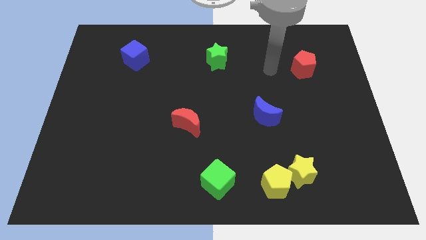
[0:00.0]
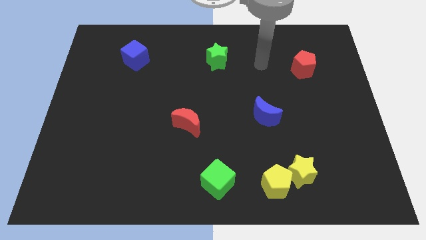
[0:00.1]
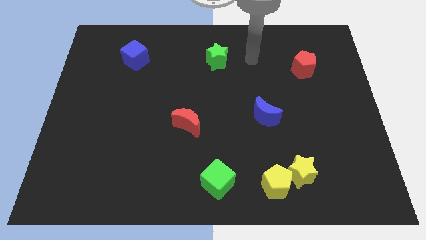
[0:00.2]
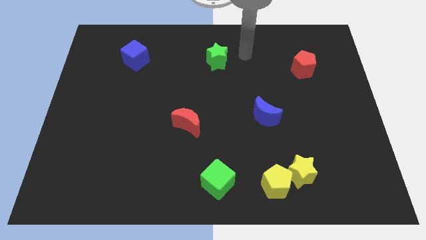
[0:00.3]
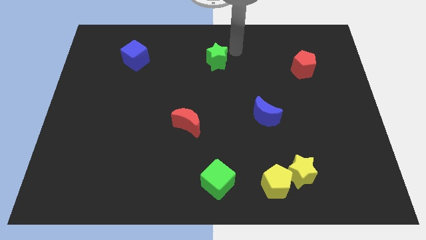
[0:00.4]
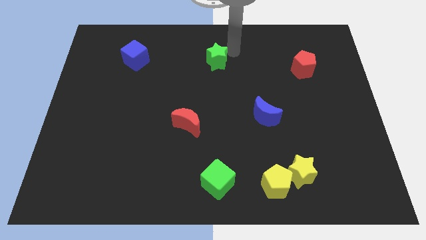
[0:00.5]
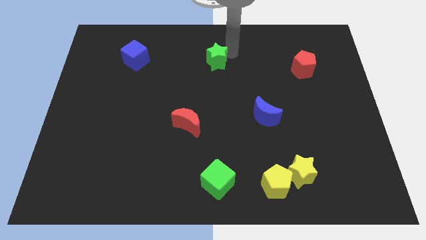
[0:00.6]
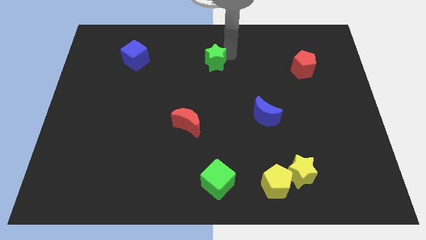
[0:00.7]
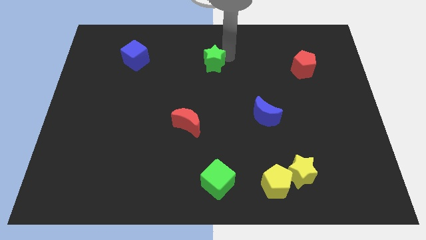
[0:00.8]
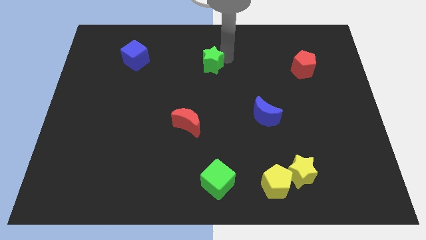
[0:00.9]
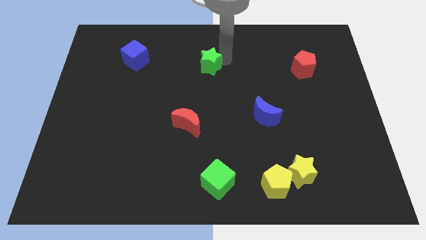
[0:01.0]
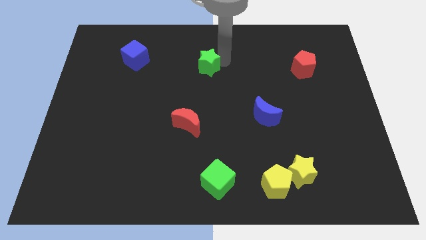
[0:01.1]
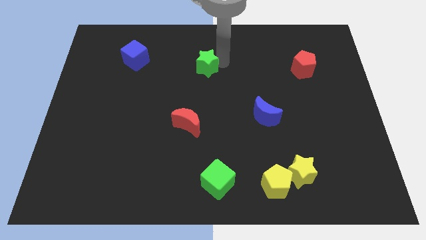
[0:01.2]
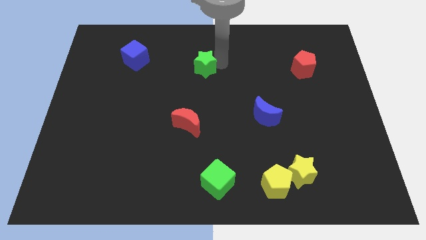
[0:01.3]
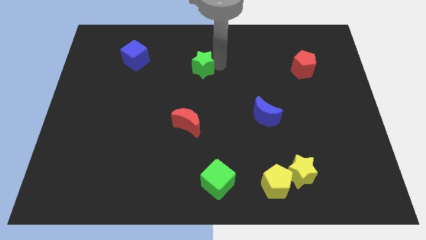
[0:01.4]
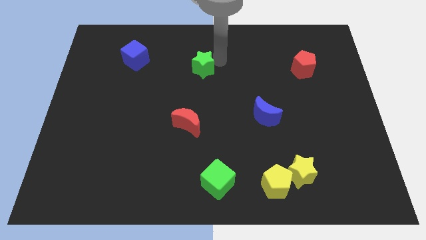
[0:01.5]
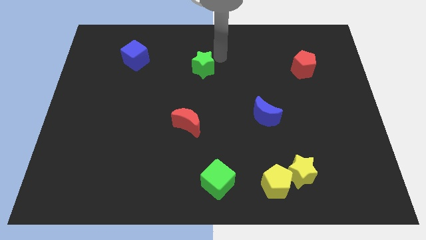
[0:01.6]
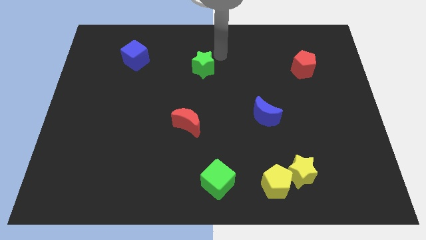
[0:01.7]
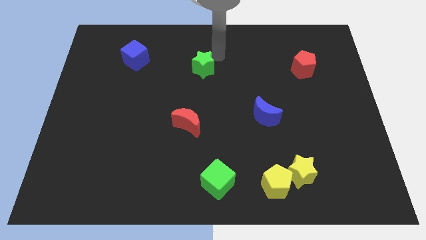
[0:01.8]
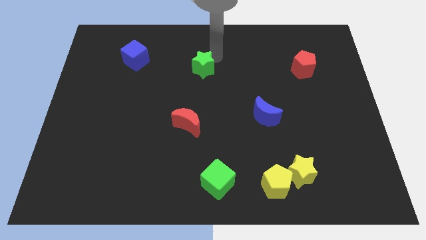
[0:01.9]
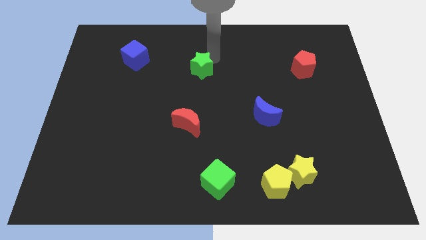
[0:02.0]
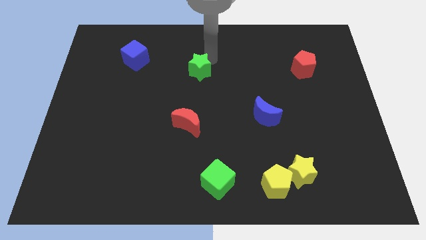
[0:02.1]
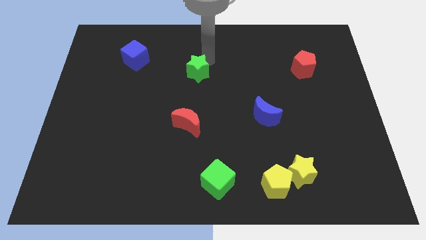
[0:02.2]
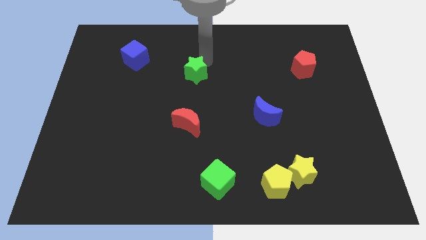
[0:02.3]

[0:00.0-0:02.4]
move the green star downwards and then to the left a bit

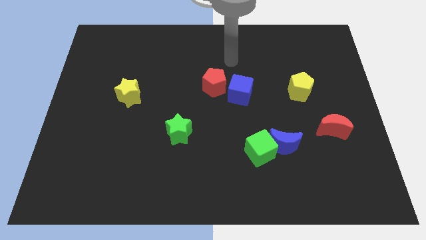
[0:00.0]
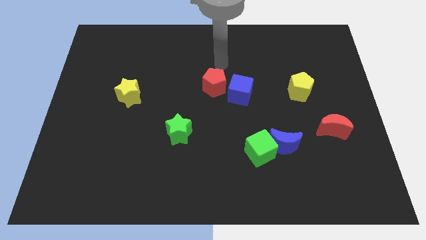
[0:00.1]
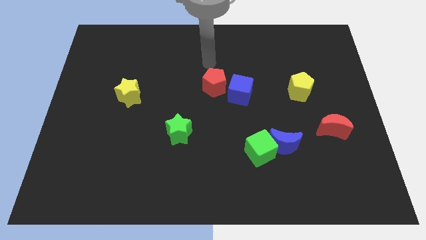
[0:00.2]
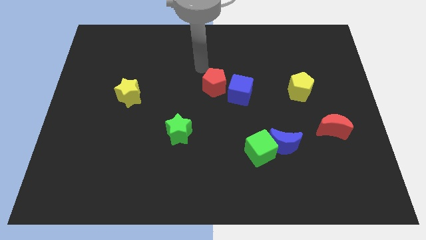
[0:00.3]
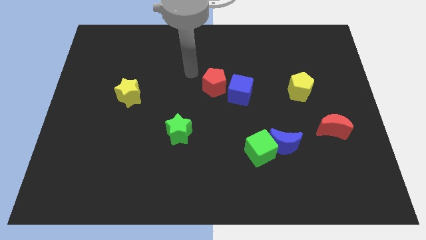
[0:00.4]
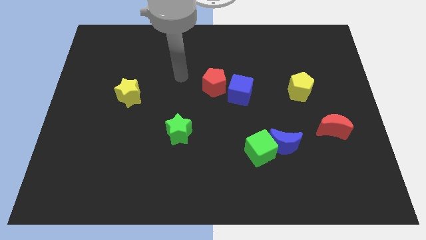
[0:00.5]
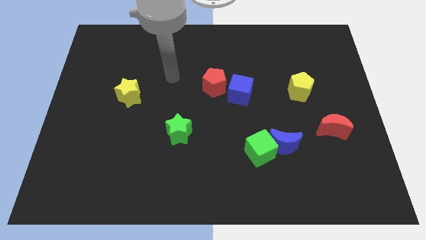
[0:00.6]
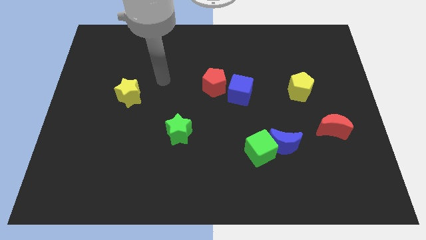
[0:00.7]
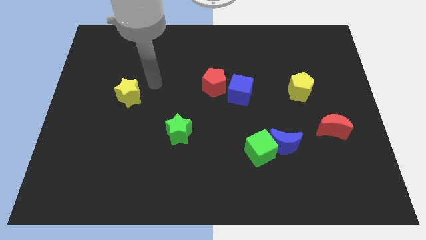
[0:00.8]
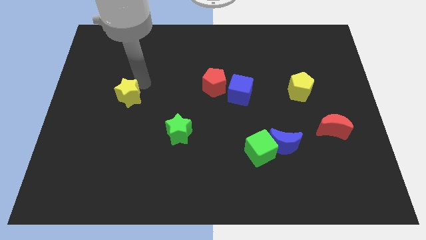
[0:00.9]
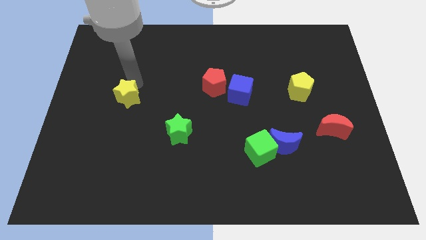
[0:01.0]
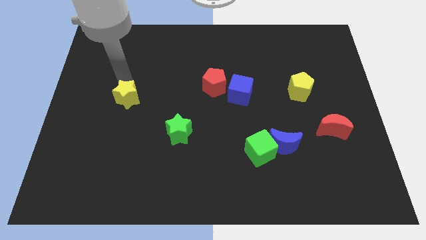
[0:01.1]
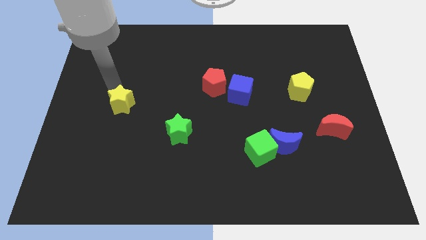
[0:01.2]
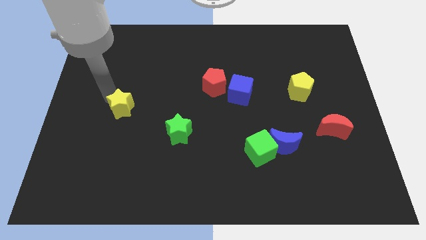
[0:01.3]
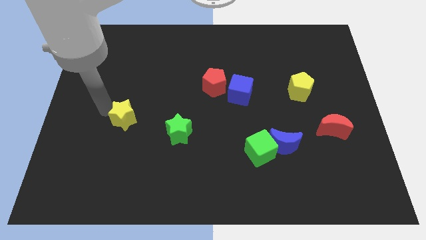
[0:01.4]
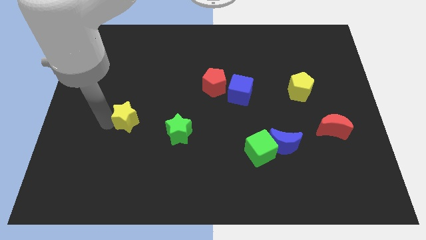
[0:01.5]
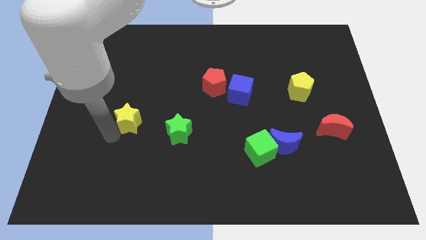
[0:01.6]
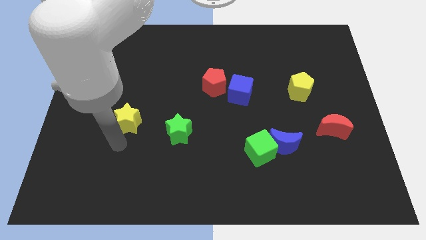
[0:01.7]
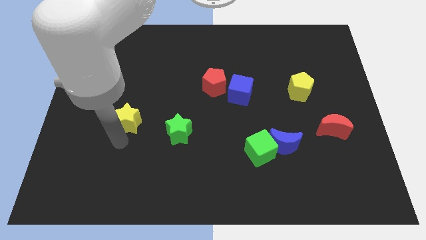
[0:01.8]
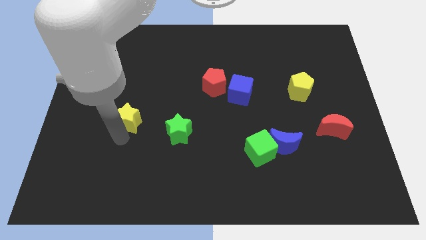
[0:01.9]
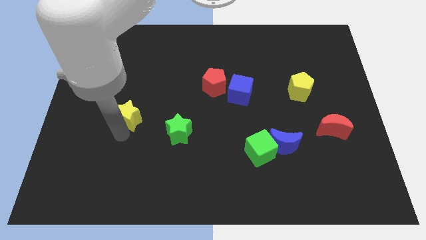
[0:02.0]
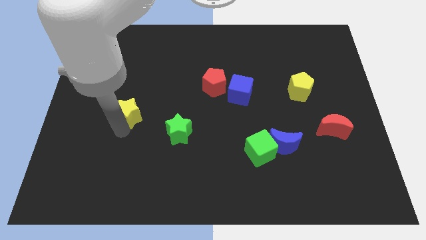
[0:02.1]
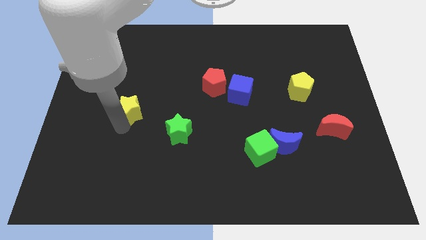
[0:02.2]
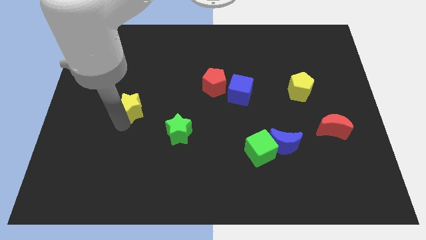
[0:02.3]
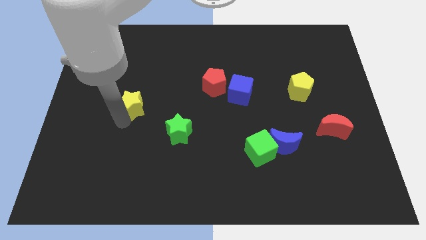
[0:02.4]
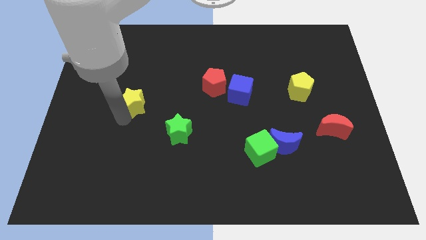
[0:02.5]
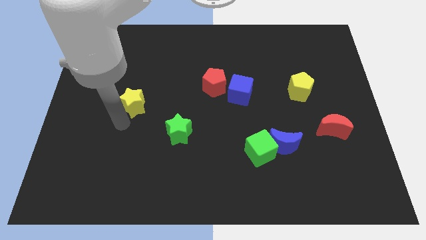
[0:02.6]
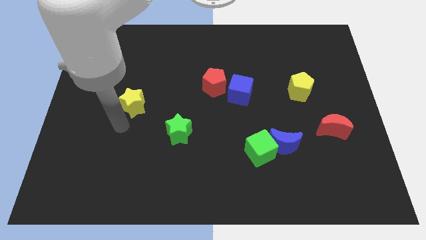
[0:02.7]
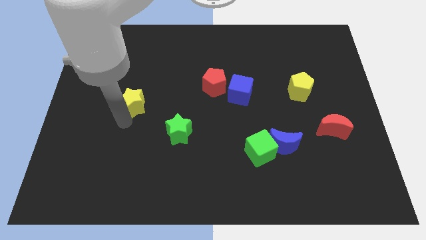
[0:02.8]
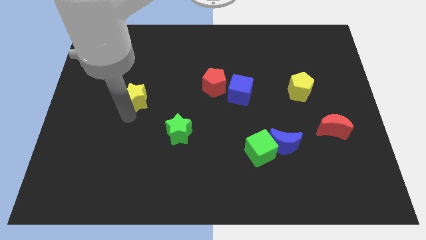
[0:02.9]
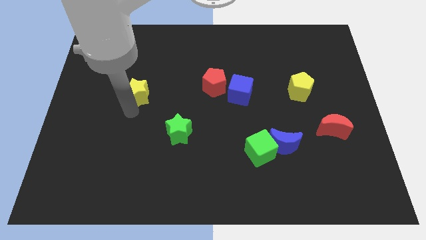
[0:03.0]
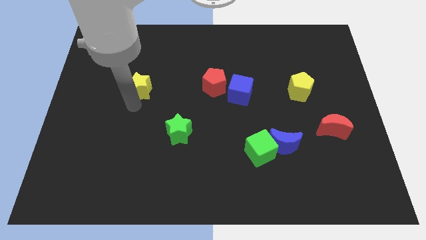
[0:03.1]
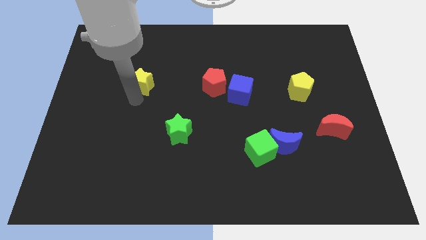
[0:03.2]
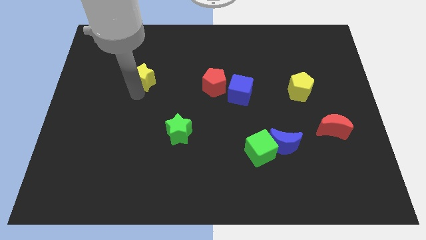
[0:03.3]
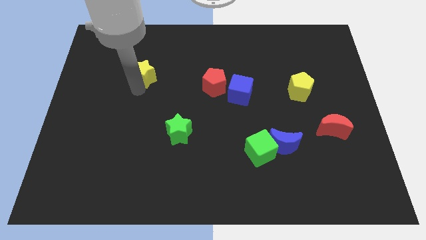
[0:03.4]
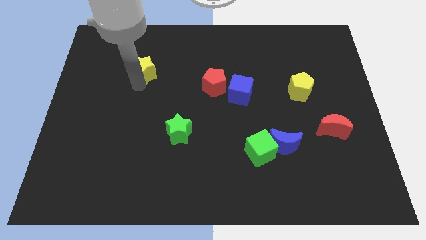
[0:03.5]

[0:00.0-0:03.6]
push the yellow star diagonally up and to the right a bit

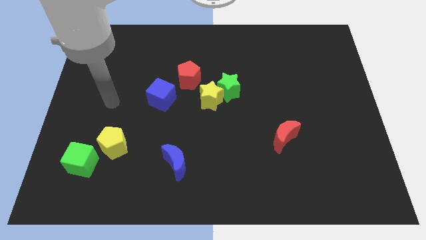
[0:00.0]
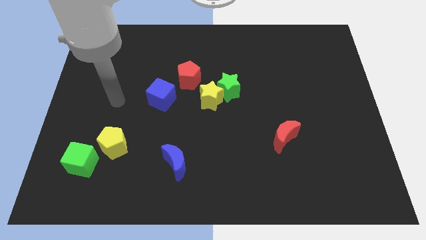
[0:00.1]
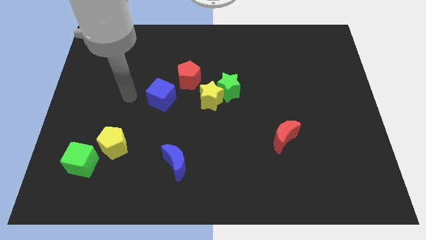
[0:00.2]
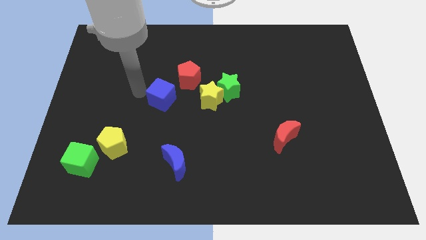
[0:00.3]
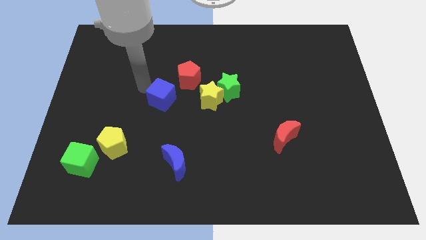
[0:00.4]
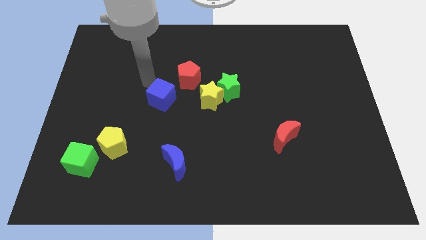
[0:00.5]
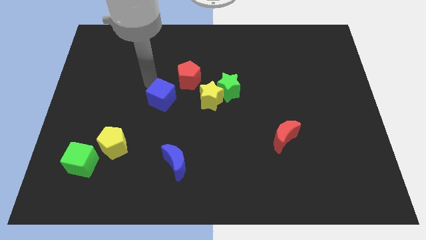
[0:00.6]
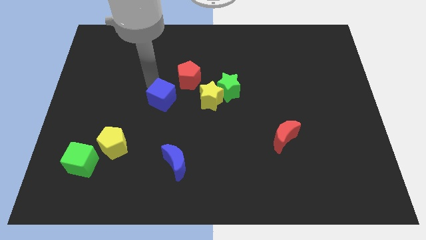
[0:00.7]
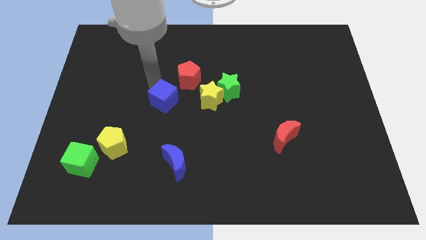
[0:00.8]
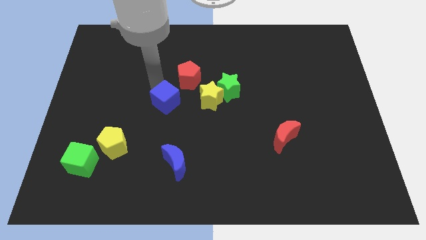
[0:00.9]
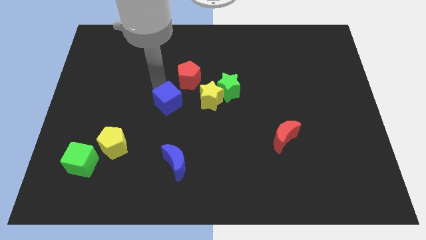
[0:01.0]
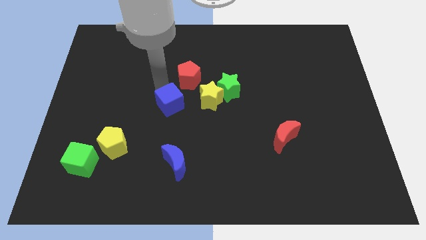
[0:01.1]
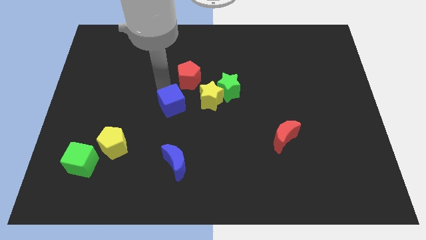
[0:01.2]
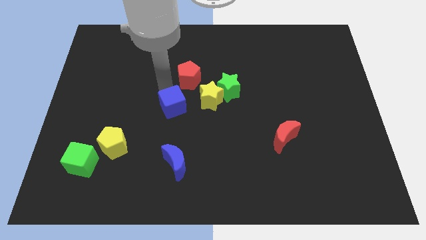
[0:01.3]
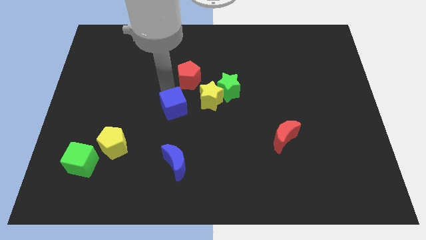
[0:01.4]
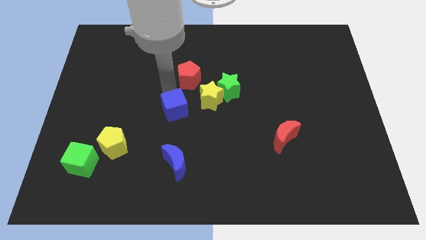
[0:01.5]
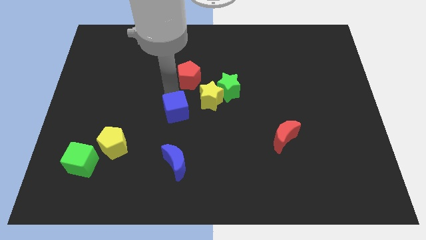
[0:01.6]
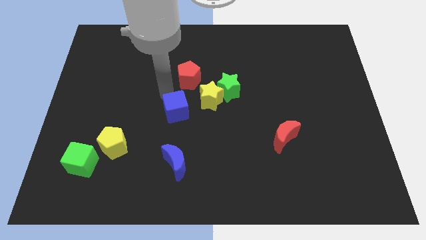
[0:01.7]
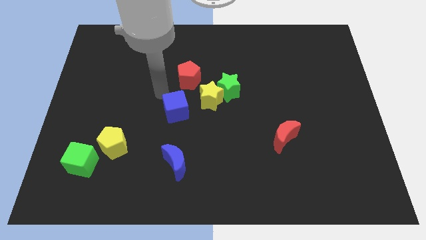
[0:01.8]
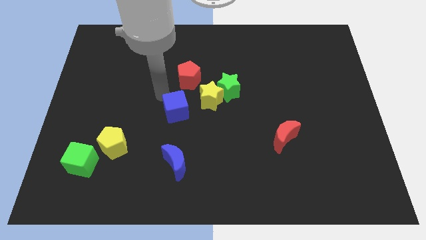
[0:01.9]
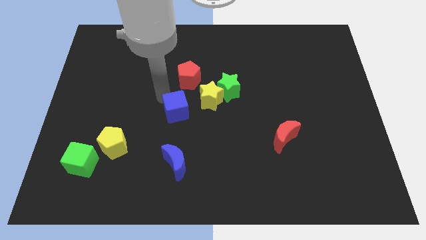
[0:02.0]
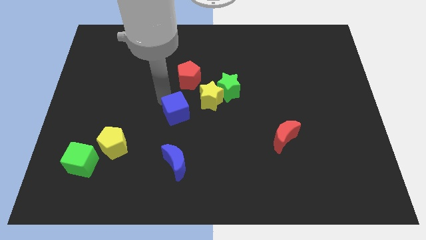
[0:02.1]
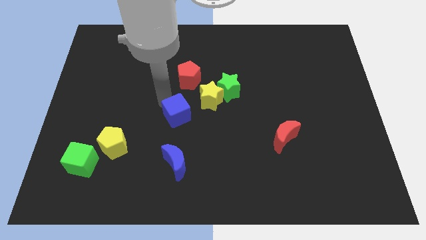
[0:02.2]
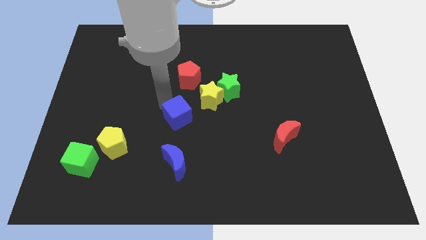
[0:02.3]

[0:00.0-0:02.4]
slightly push the blue cube diagonally down and to the right
